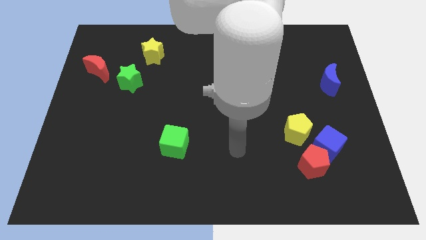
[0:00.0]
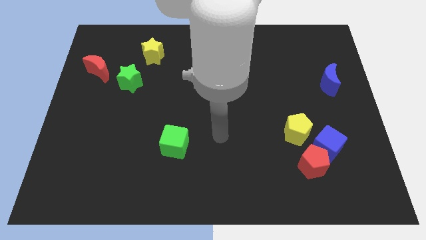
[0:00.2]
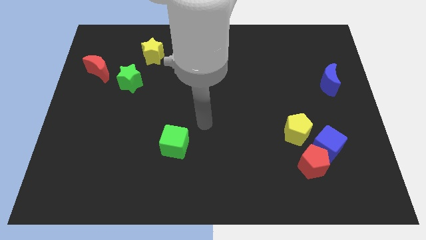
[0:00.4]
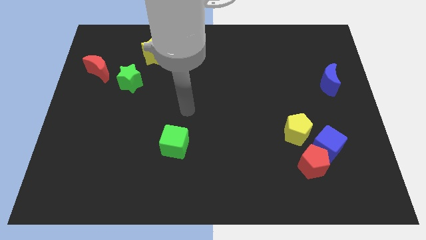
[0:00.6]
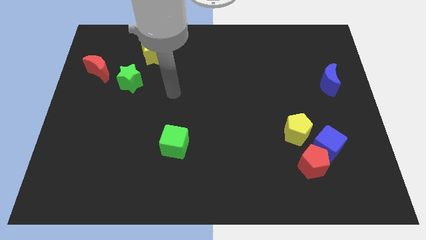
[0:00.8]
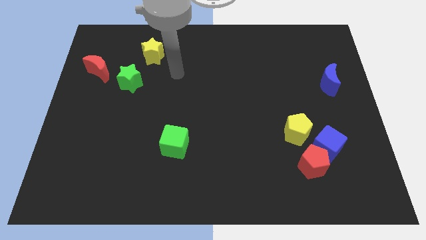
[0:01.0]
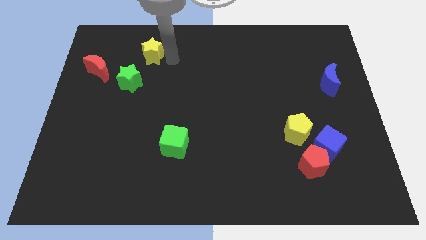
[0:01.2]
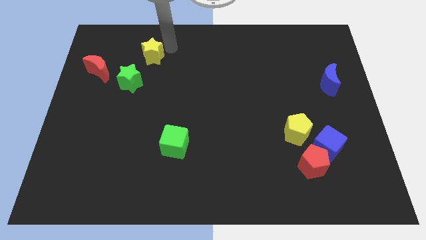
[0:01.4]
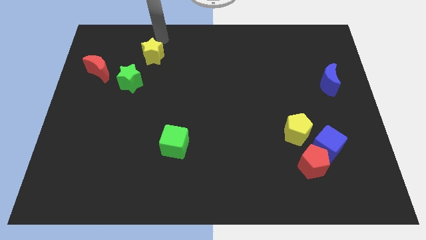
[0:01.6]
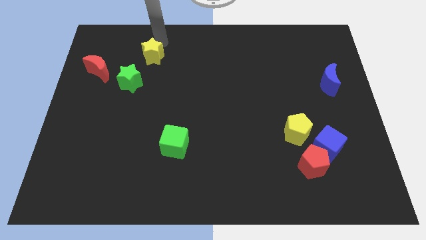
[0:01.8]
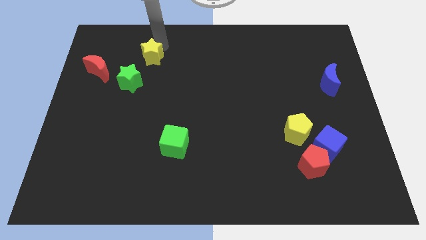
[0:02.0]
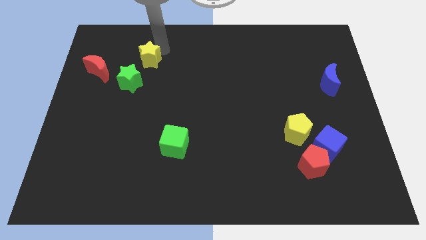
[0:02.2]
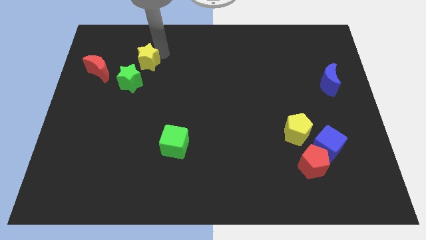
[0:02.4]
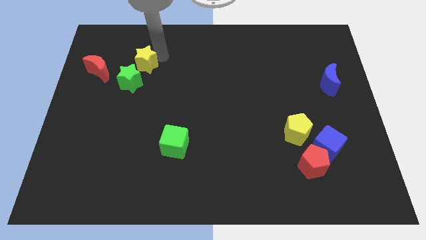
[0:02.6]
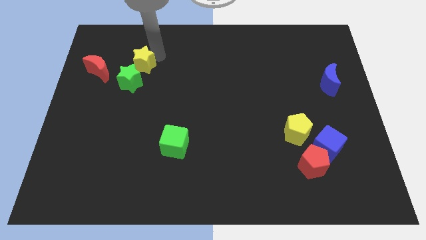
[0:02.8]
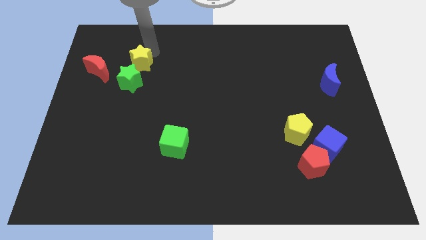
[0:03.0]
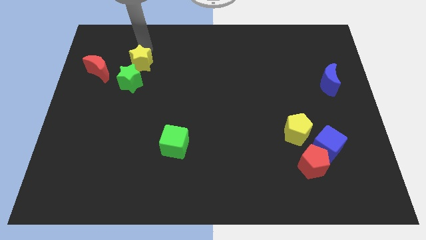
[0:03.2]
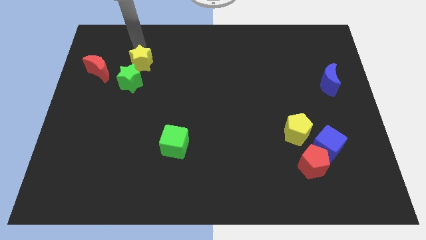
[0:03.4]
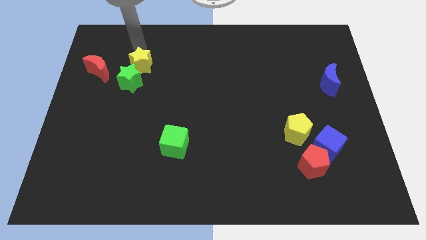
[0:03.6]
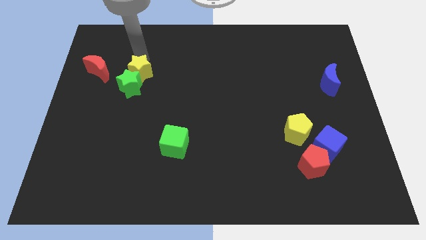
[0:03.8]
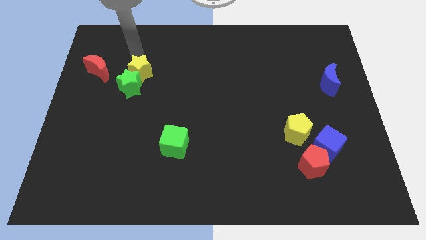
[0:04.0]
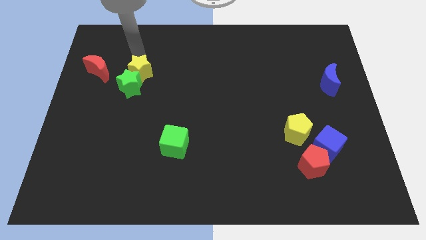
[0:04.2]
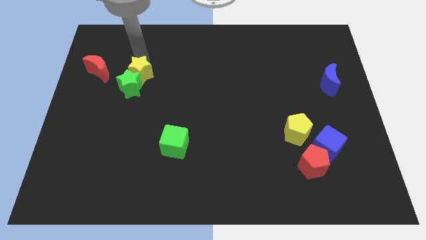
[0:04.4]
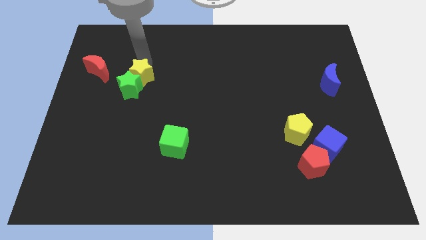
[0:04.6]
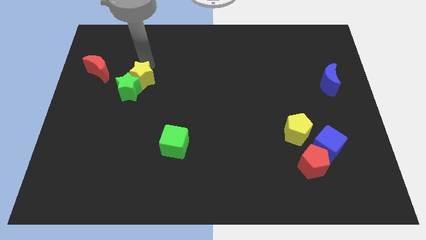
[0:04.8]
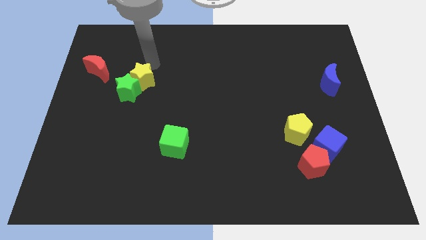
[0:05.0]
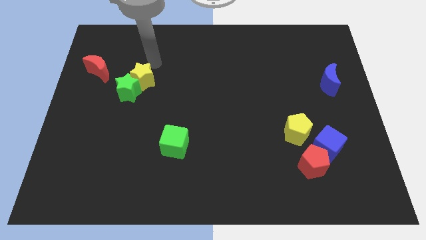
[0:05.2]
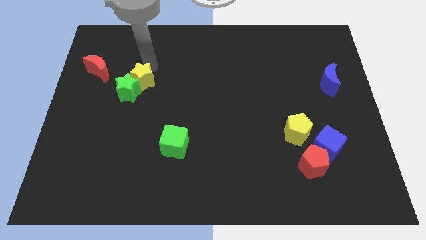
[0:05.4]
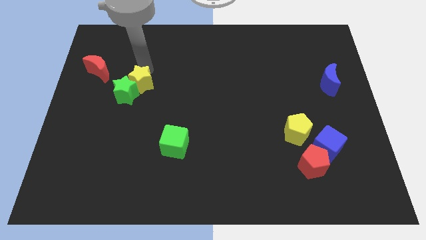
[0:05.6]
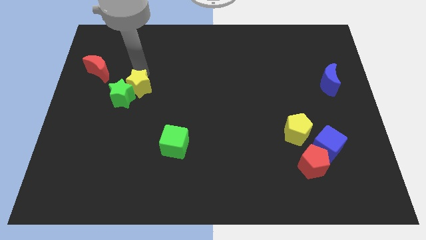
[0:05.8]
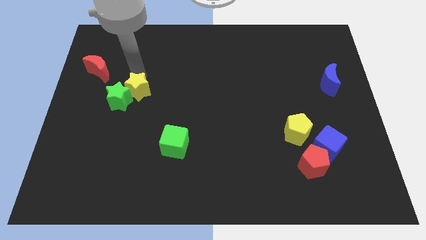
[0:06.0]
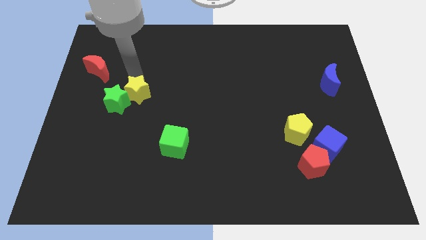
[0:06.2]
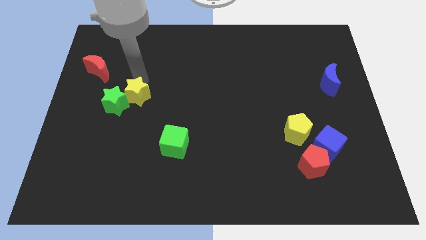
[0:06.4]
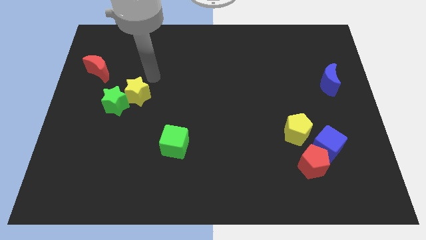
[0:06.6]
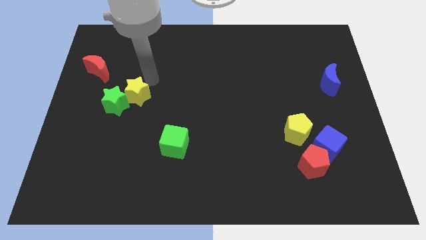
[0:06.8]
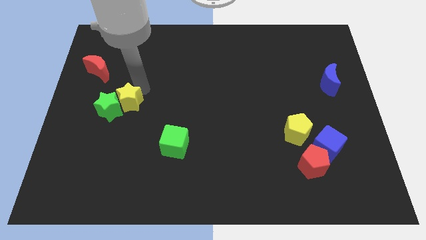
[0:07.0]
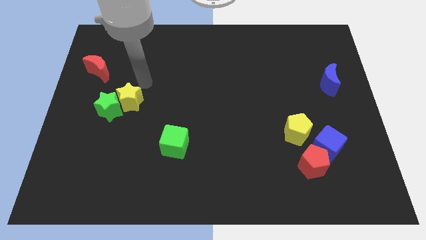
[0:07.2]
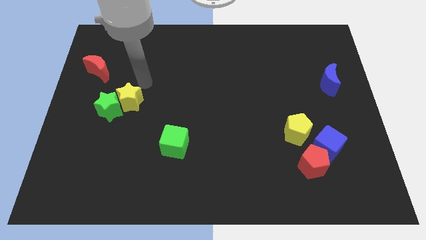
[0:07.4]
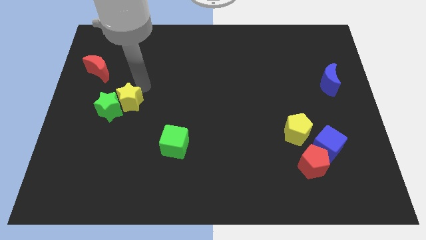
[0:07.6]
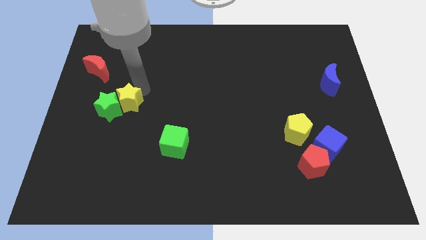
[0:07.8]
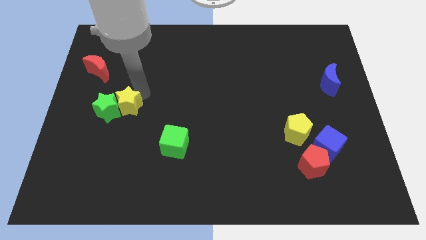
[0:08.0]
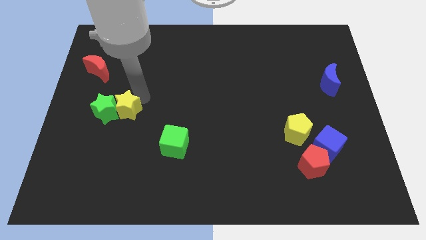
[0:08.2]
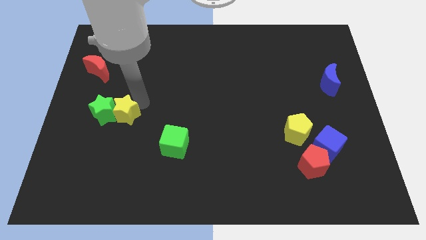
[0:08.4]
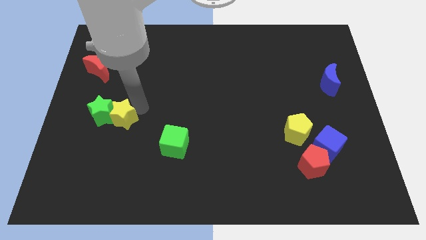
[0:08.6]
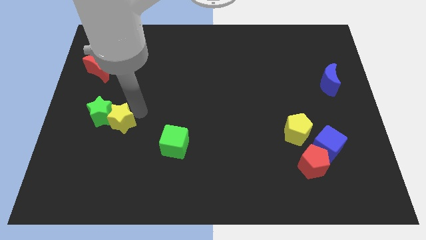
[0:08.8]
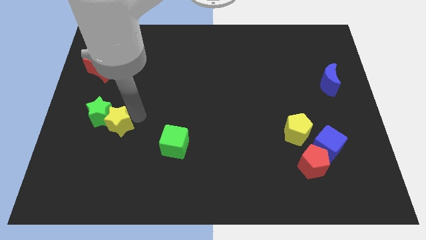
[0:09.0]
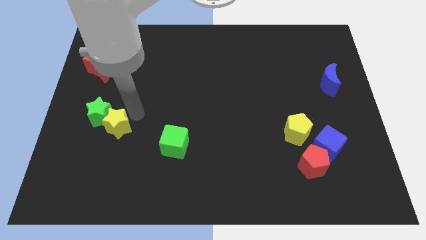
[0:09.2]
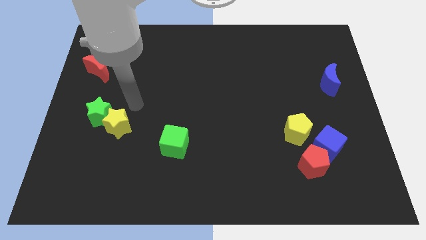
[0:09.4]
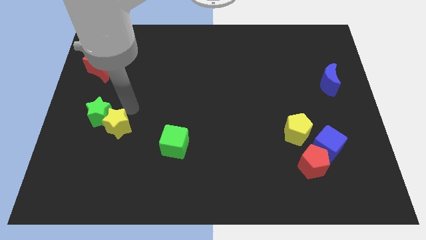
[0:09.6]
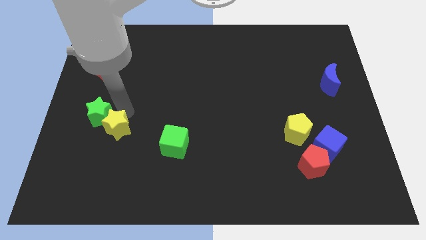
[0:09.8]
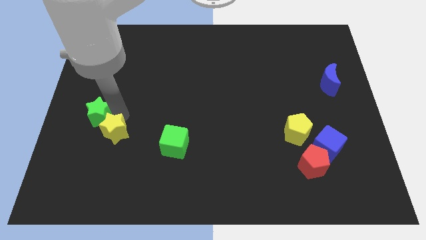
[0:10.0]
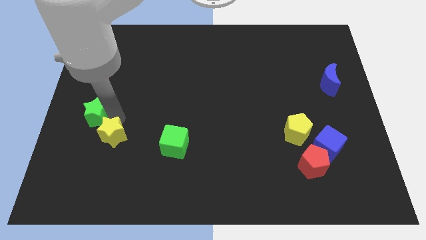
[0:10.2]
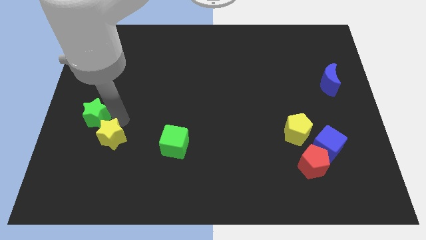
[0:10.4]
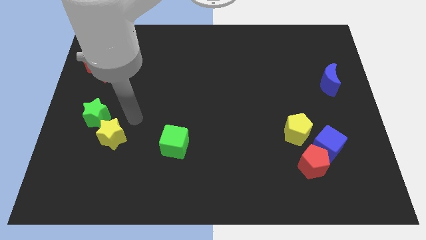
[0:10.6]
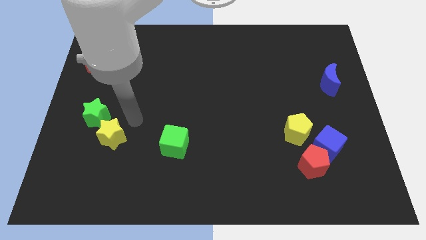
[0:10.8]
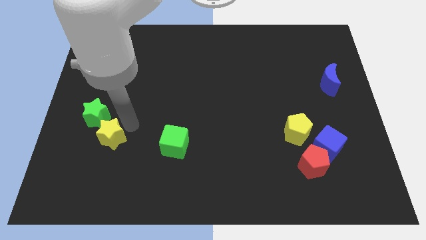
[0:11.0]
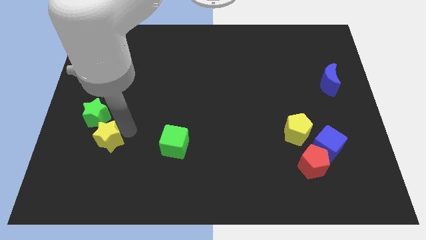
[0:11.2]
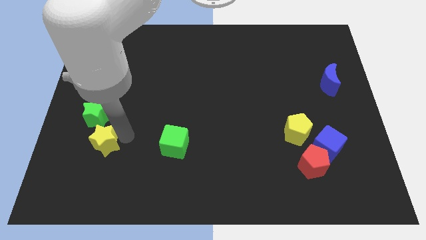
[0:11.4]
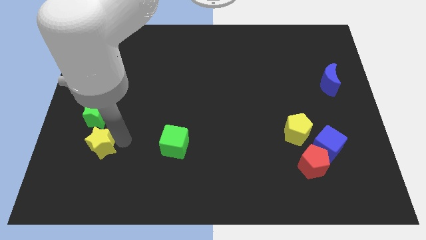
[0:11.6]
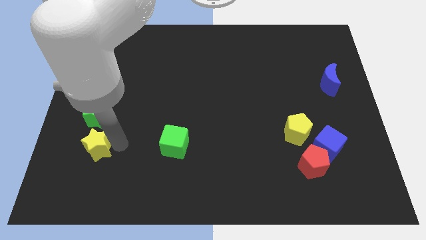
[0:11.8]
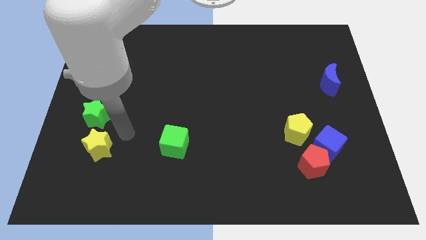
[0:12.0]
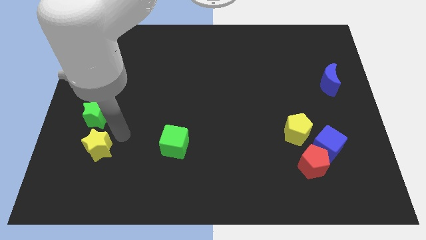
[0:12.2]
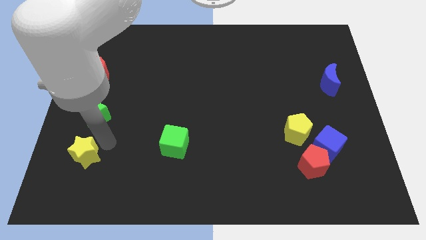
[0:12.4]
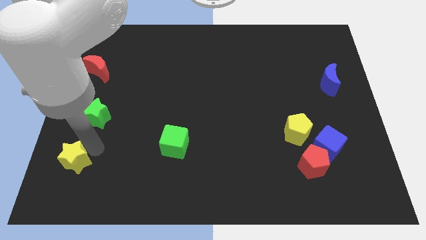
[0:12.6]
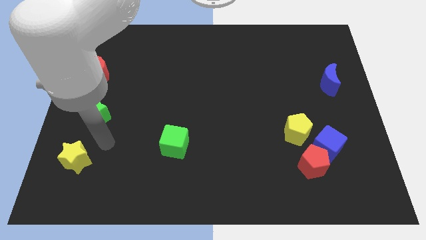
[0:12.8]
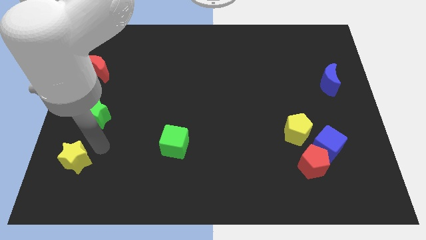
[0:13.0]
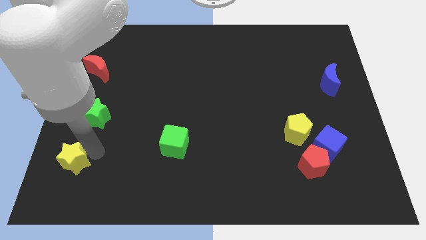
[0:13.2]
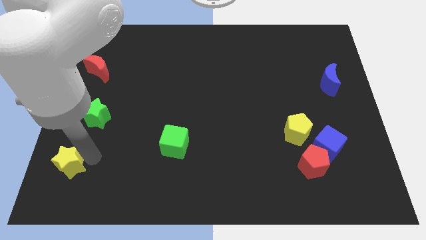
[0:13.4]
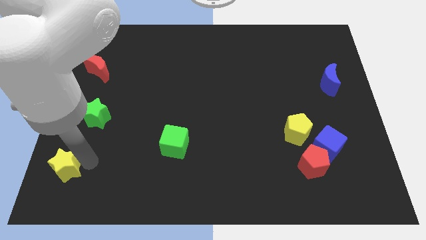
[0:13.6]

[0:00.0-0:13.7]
slide the yellow star to the bottom left of the board
